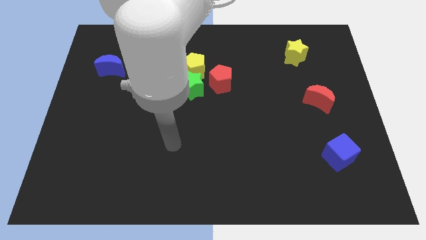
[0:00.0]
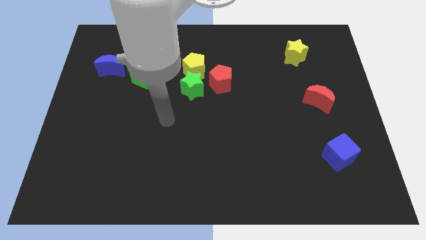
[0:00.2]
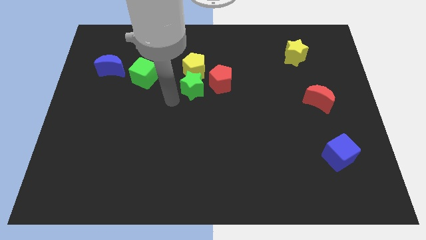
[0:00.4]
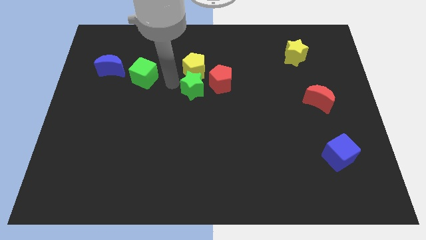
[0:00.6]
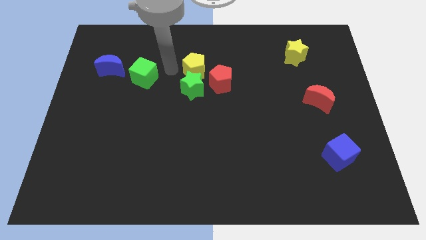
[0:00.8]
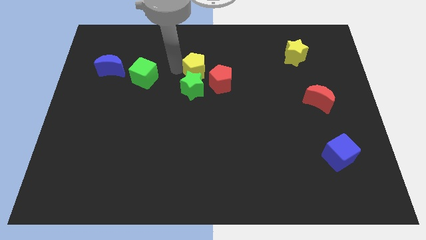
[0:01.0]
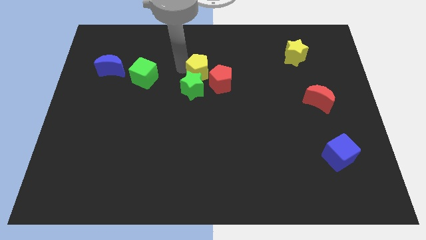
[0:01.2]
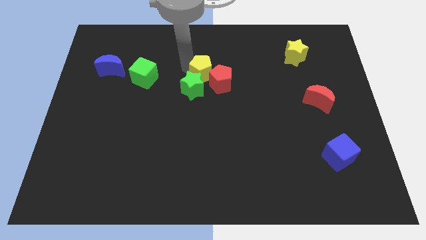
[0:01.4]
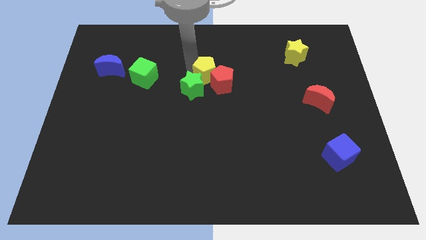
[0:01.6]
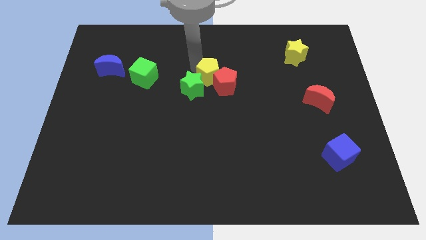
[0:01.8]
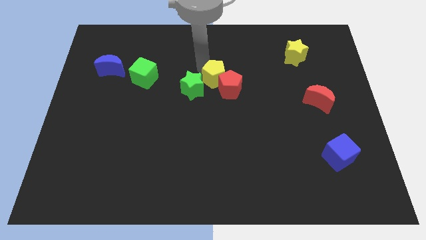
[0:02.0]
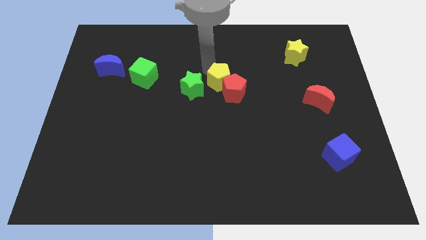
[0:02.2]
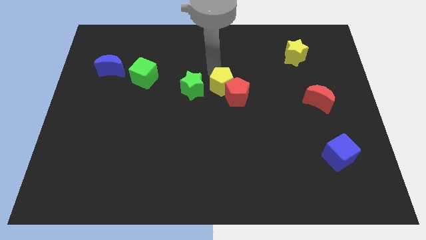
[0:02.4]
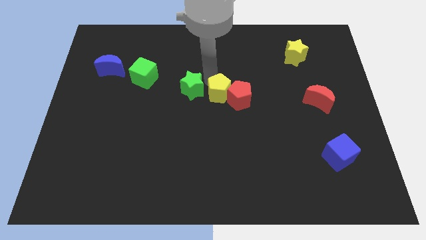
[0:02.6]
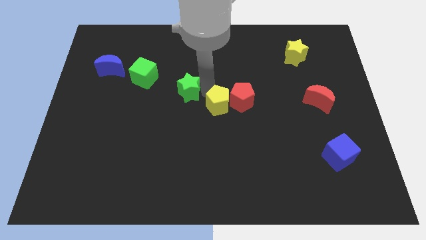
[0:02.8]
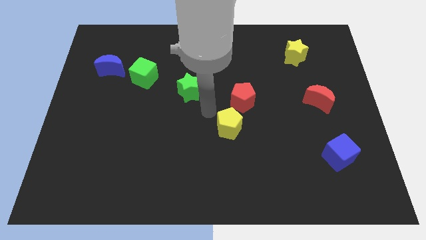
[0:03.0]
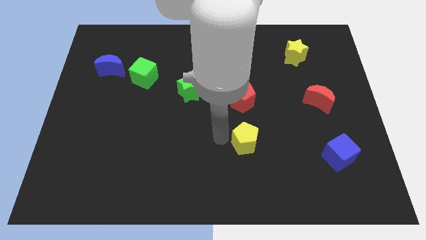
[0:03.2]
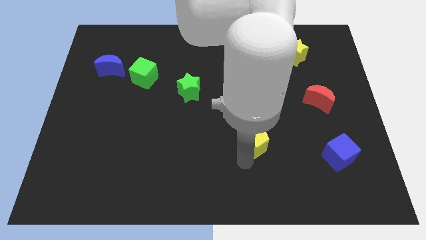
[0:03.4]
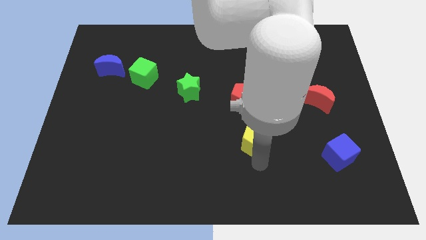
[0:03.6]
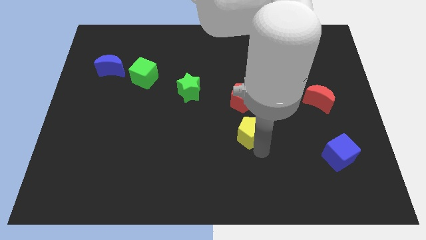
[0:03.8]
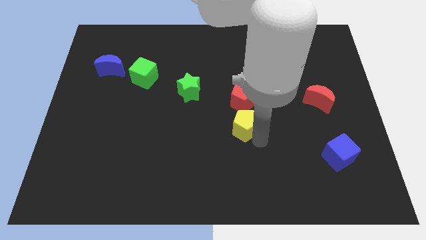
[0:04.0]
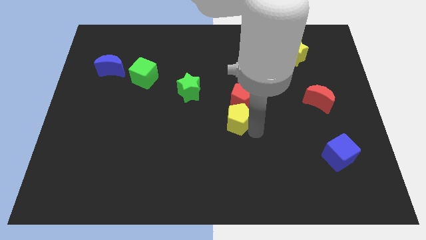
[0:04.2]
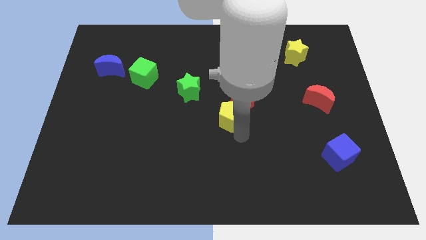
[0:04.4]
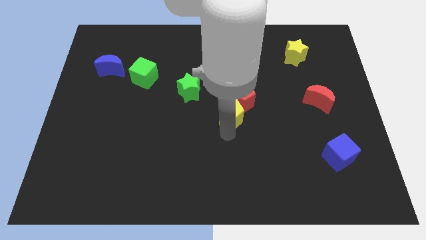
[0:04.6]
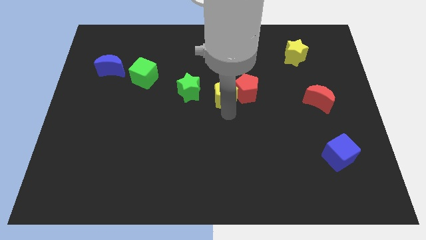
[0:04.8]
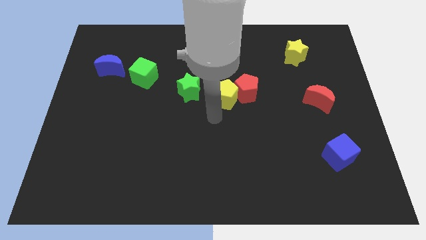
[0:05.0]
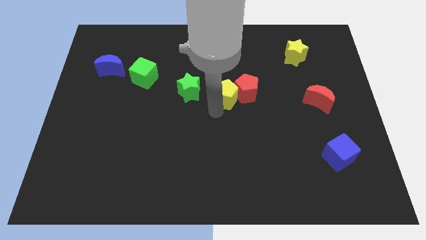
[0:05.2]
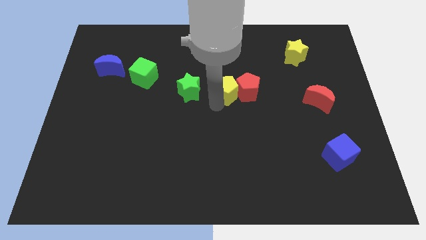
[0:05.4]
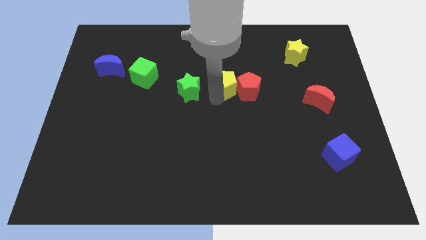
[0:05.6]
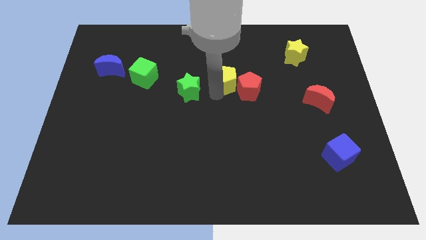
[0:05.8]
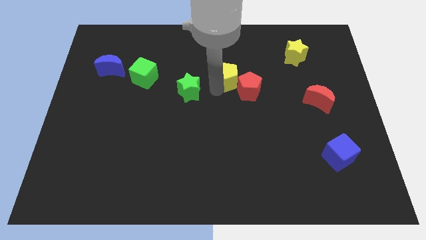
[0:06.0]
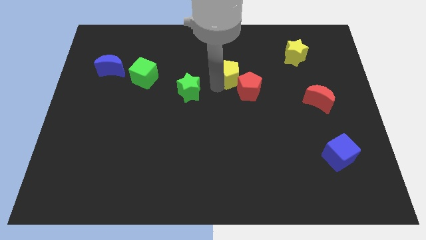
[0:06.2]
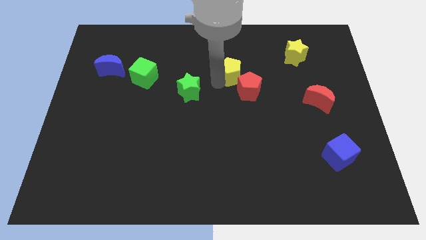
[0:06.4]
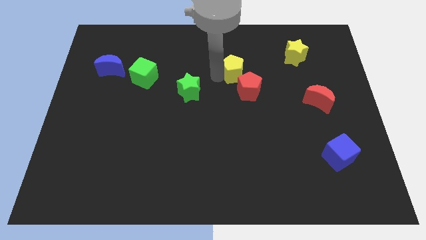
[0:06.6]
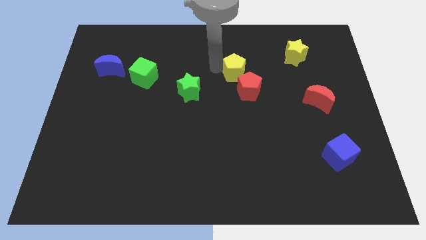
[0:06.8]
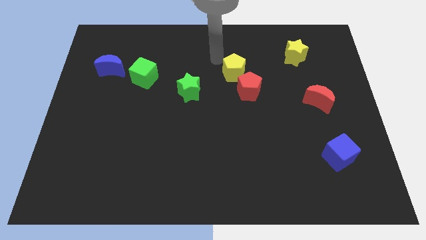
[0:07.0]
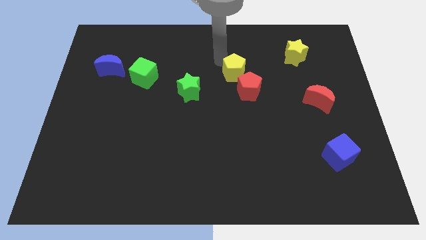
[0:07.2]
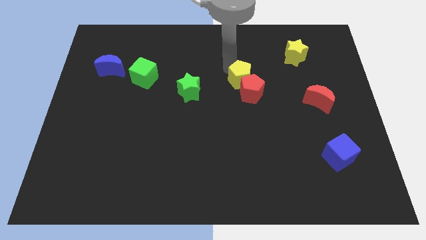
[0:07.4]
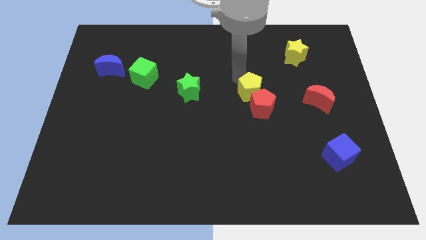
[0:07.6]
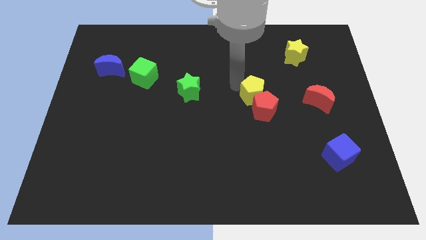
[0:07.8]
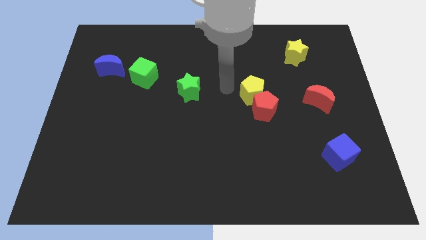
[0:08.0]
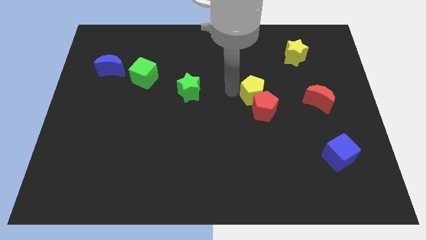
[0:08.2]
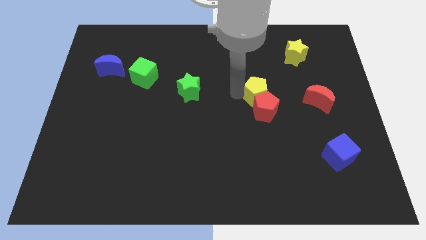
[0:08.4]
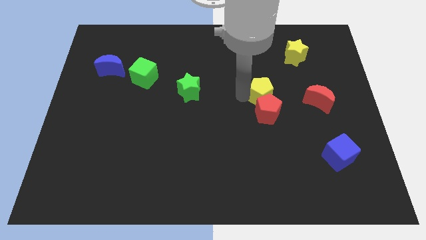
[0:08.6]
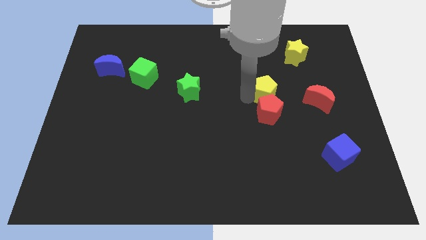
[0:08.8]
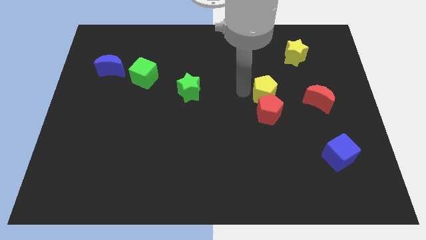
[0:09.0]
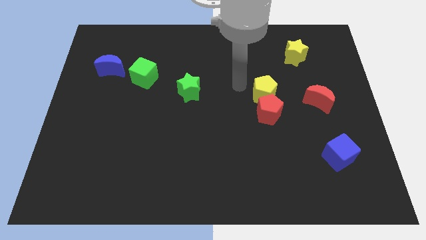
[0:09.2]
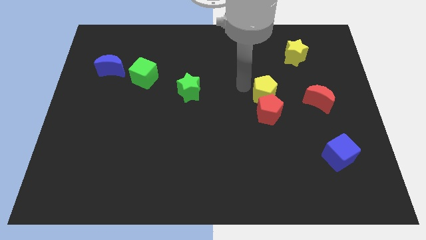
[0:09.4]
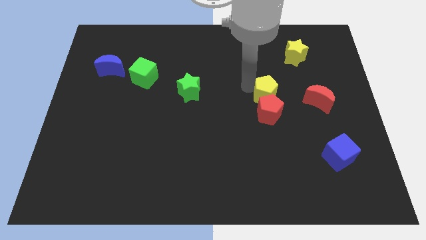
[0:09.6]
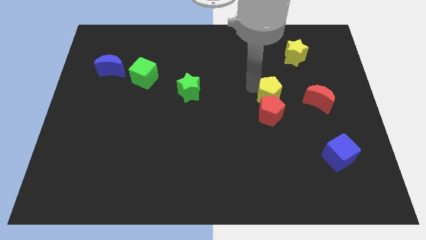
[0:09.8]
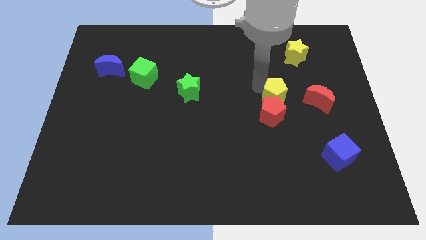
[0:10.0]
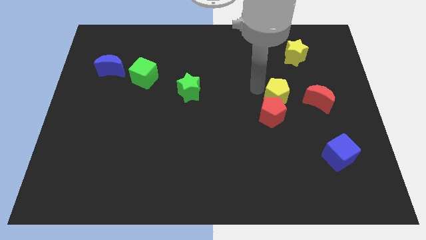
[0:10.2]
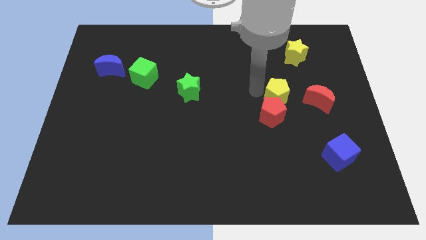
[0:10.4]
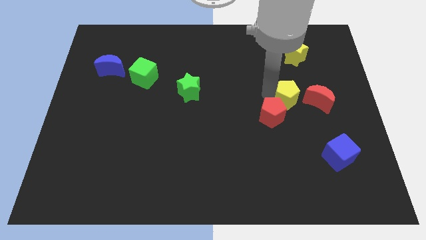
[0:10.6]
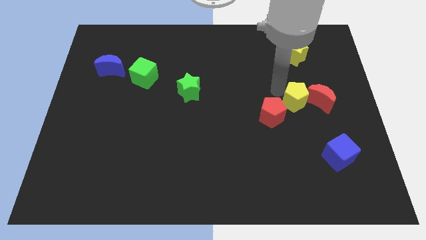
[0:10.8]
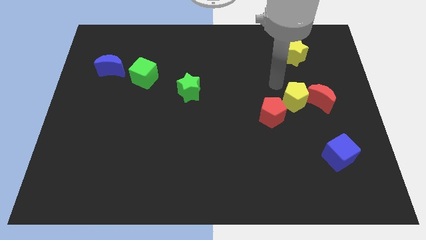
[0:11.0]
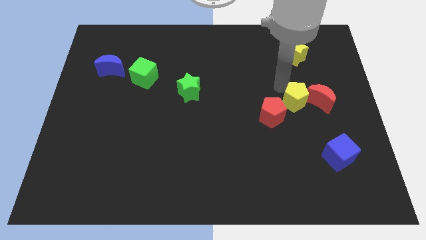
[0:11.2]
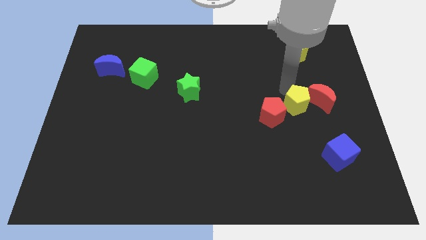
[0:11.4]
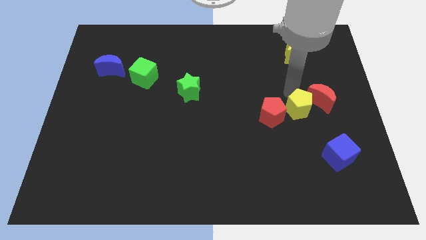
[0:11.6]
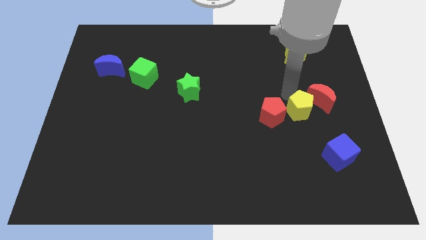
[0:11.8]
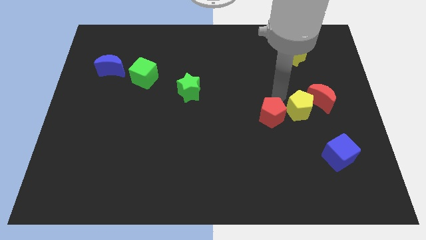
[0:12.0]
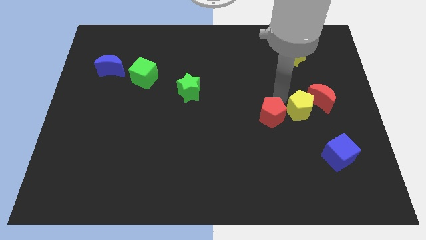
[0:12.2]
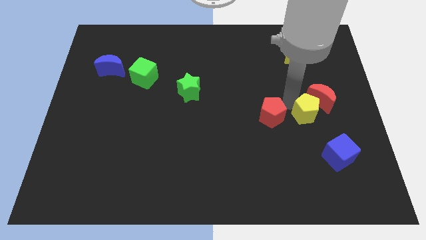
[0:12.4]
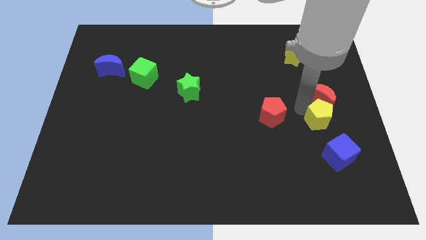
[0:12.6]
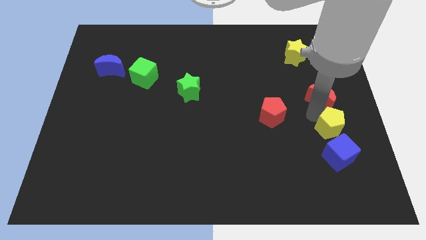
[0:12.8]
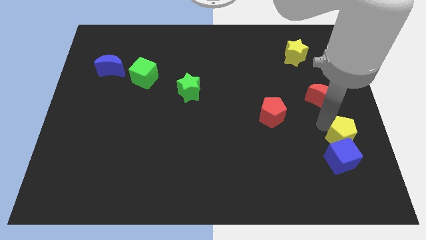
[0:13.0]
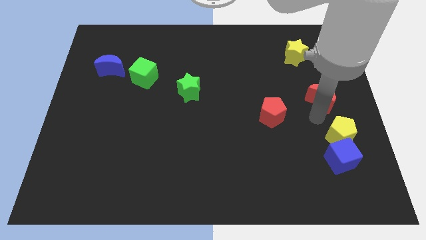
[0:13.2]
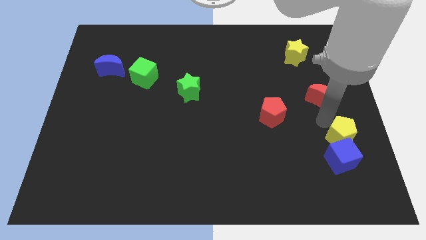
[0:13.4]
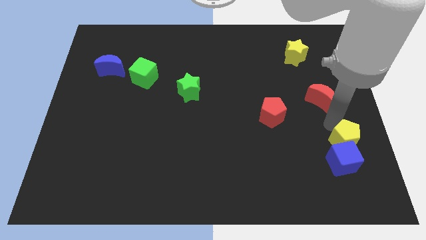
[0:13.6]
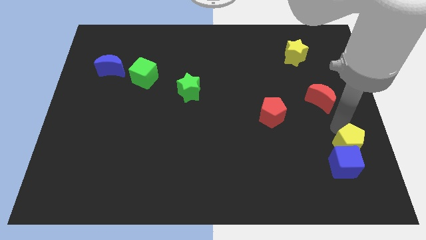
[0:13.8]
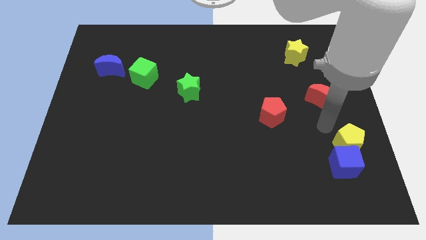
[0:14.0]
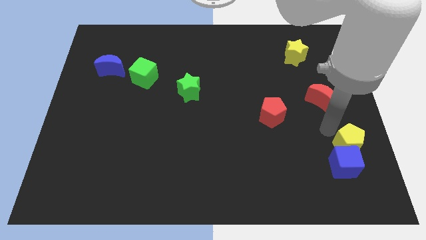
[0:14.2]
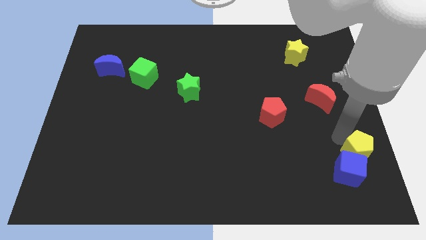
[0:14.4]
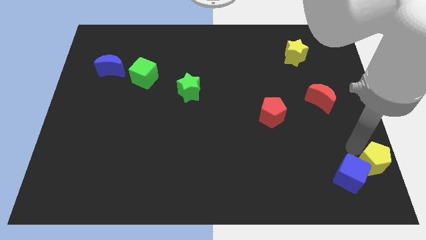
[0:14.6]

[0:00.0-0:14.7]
move the yellow pentagon to the bottom right of the board
